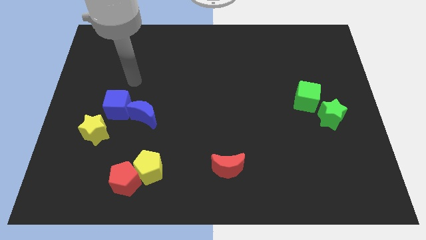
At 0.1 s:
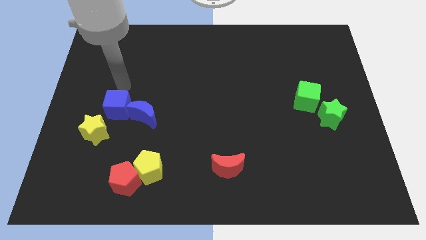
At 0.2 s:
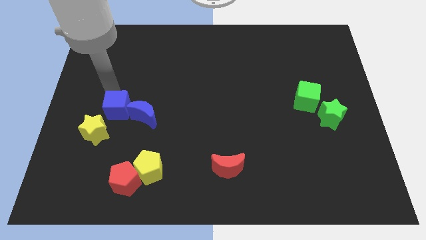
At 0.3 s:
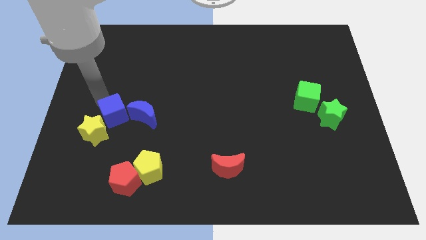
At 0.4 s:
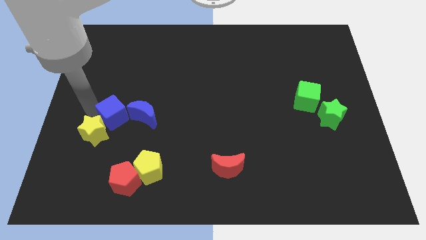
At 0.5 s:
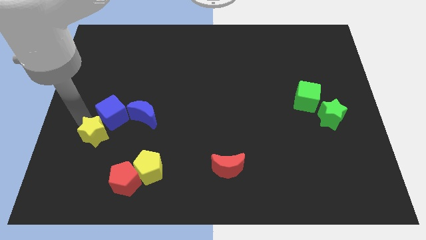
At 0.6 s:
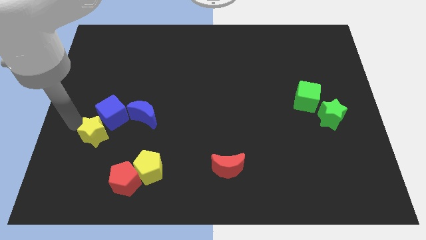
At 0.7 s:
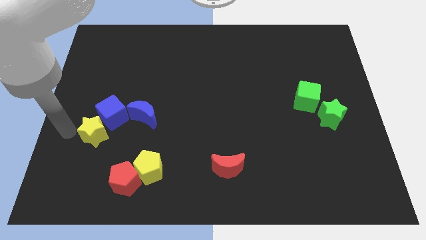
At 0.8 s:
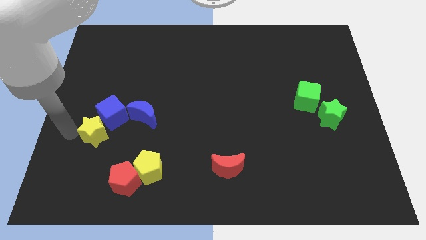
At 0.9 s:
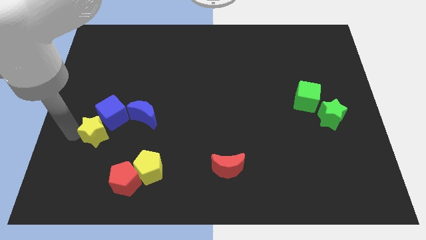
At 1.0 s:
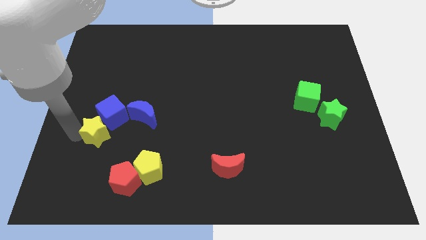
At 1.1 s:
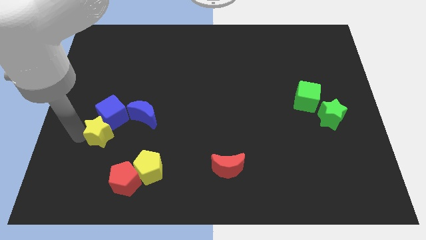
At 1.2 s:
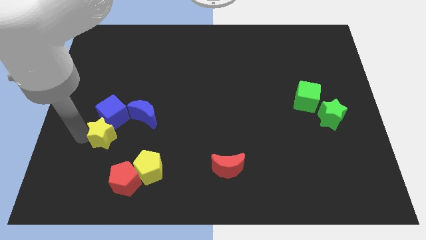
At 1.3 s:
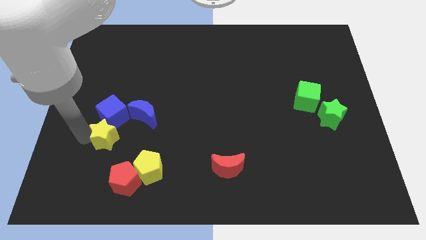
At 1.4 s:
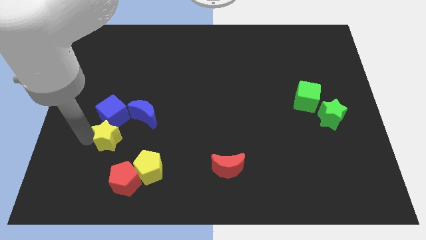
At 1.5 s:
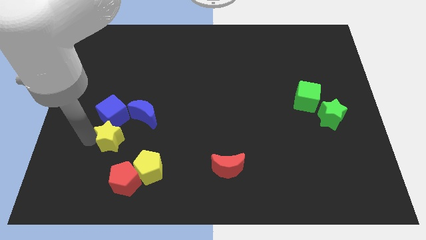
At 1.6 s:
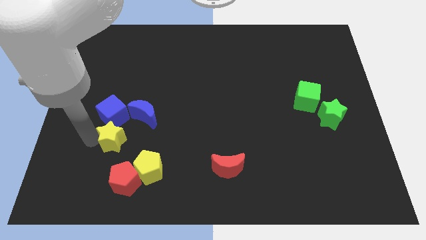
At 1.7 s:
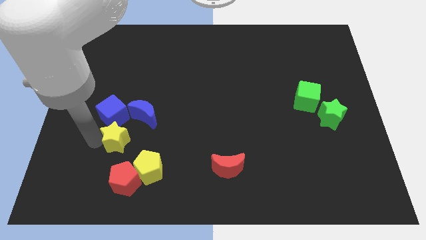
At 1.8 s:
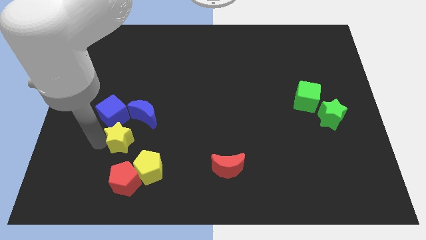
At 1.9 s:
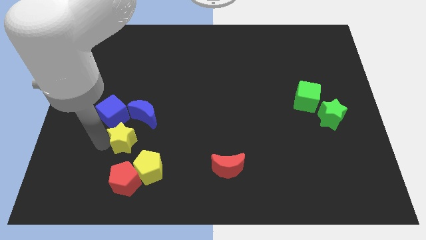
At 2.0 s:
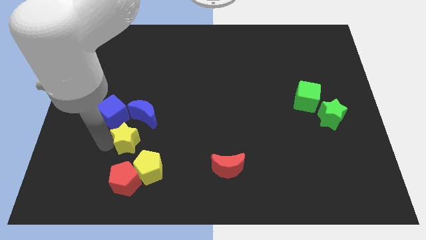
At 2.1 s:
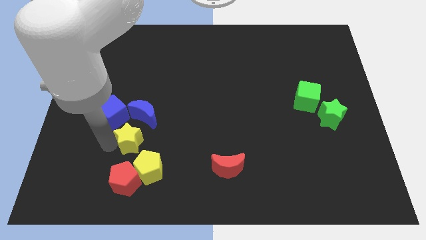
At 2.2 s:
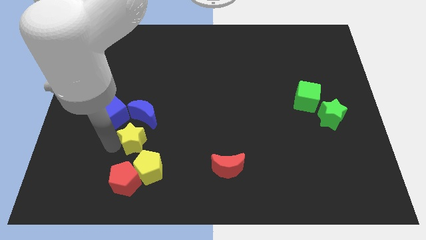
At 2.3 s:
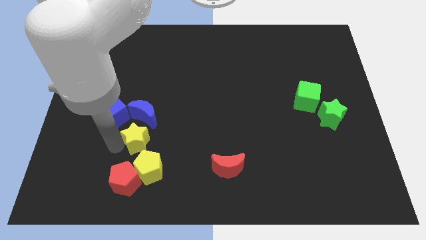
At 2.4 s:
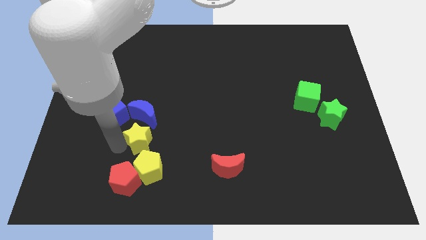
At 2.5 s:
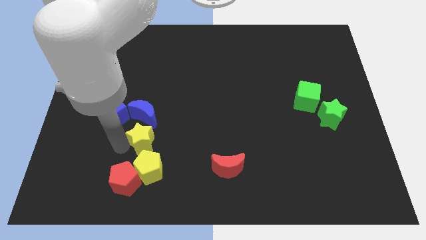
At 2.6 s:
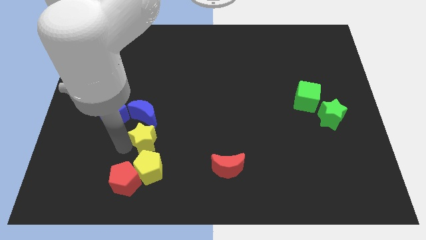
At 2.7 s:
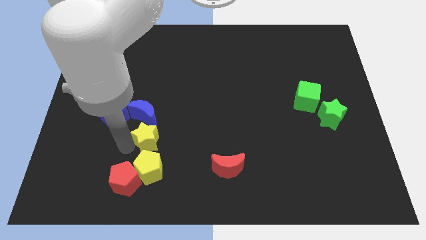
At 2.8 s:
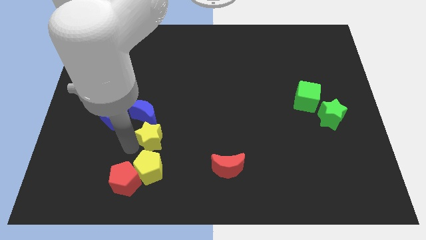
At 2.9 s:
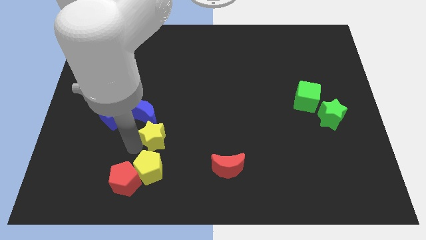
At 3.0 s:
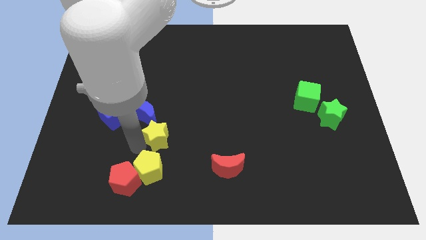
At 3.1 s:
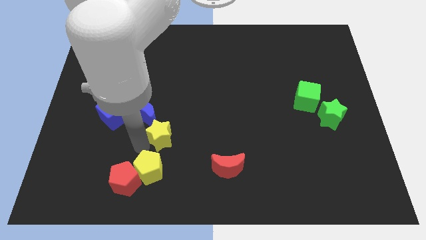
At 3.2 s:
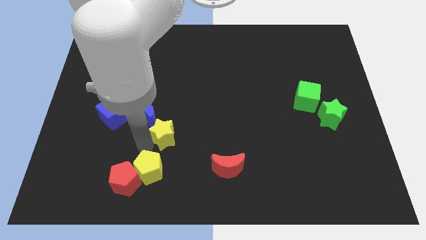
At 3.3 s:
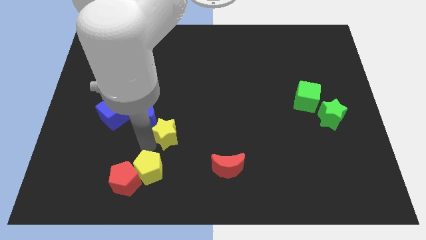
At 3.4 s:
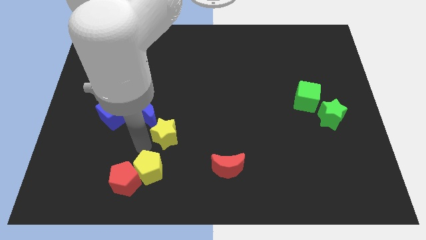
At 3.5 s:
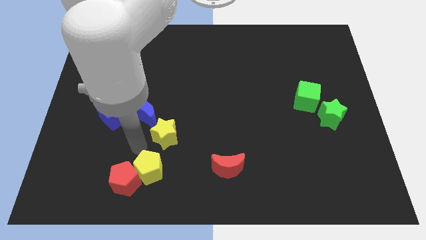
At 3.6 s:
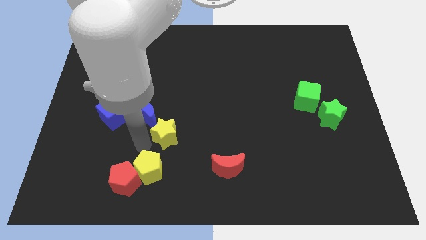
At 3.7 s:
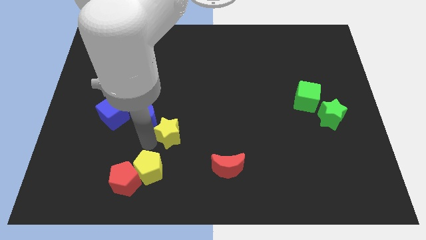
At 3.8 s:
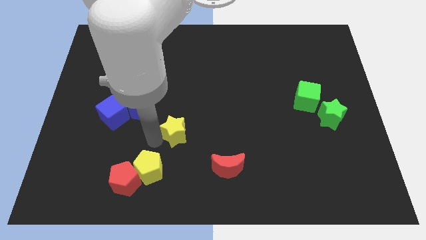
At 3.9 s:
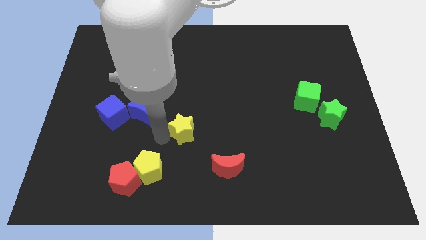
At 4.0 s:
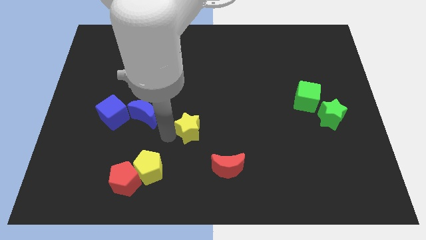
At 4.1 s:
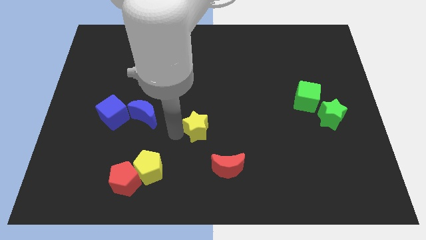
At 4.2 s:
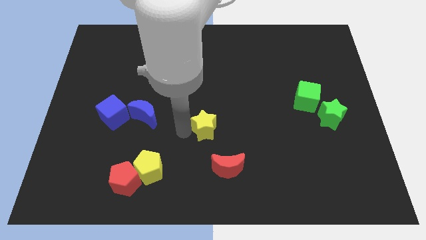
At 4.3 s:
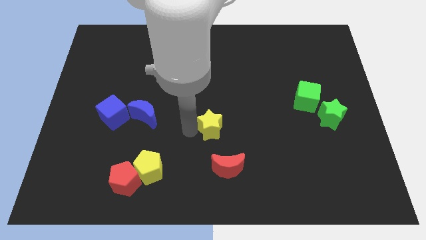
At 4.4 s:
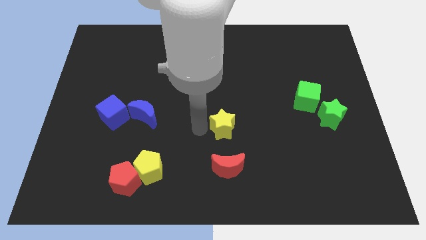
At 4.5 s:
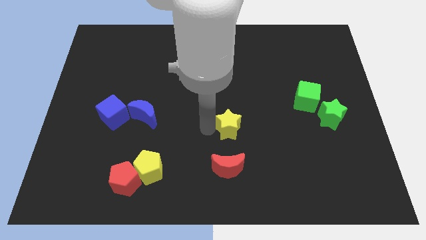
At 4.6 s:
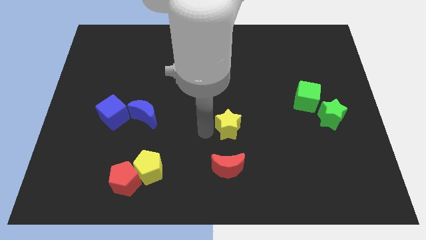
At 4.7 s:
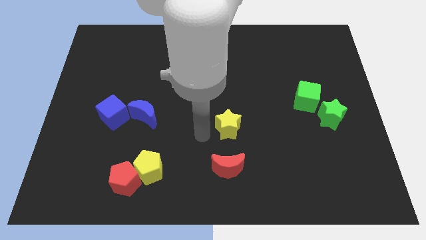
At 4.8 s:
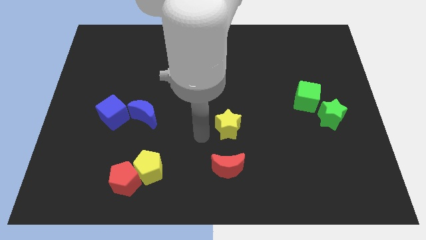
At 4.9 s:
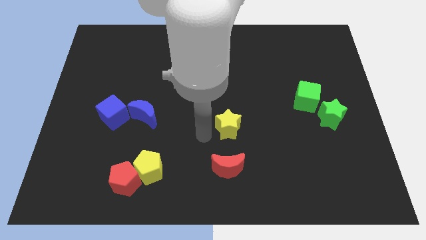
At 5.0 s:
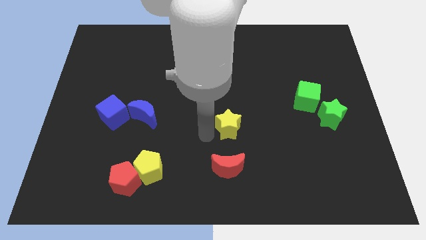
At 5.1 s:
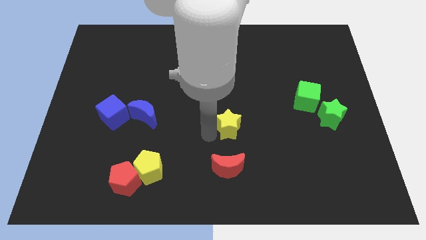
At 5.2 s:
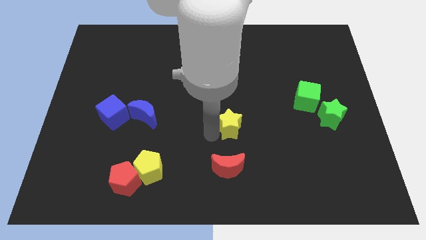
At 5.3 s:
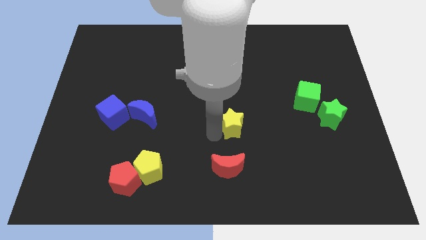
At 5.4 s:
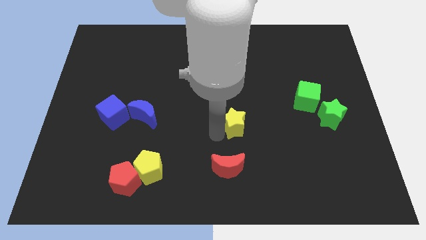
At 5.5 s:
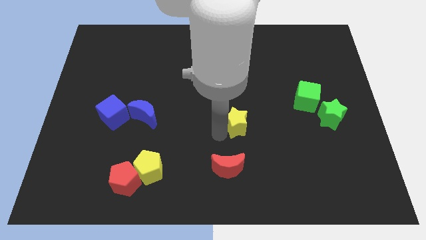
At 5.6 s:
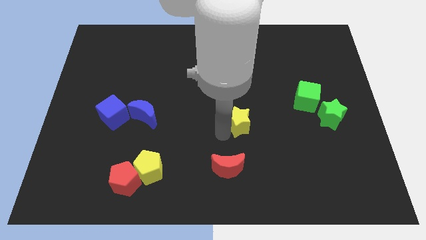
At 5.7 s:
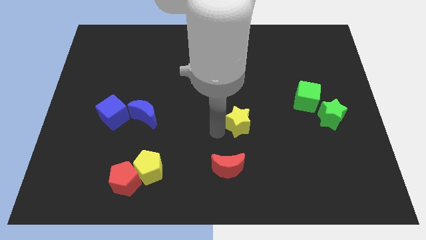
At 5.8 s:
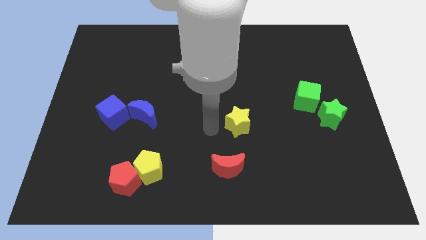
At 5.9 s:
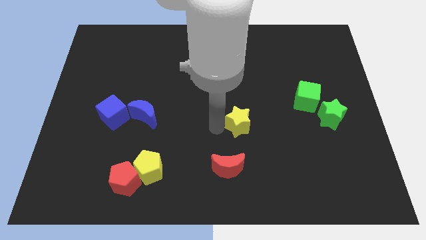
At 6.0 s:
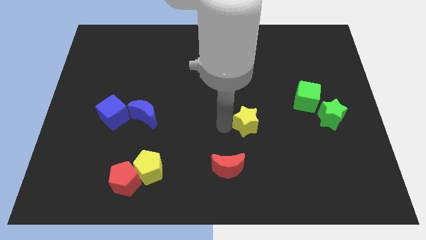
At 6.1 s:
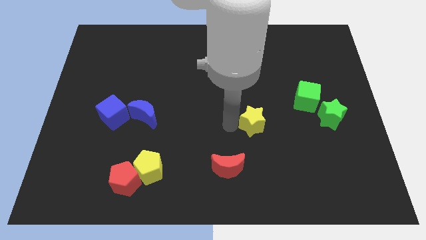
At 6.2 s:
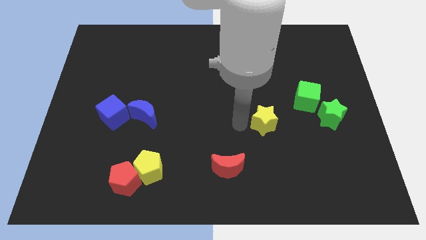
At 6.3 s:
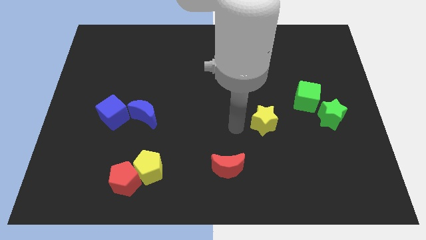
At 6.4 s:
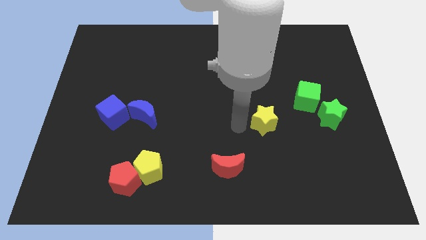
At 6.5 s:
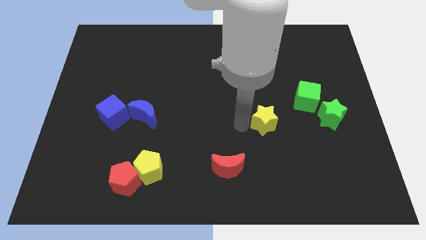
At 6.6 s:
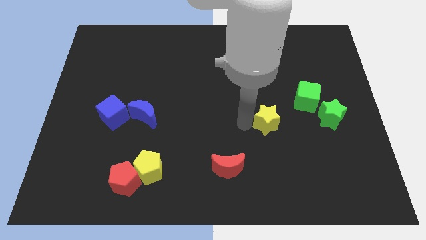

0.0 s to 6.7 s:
slide the yellow star to the bottom left side of the green cube
